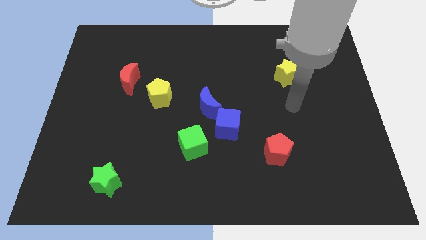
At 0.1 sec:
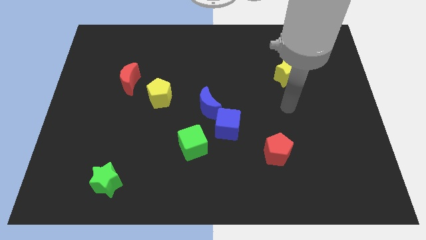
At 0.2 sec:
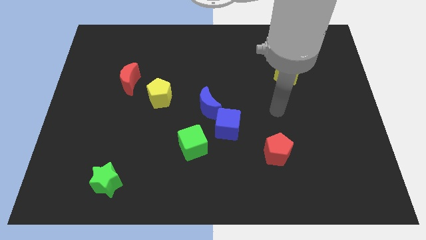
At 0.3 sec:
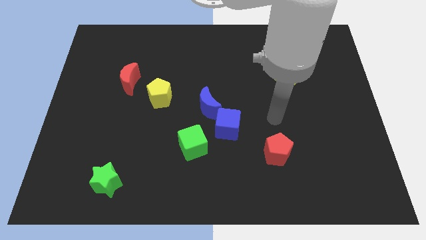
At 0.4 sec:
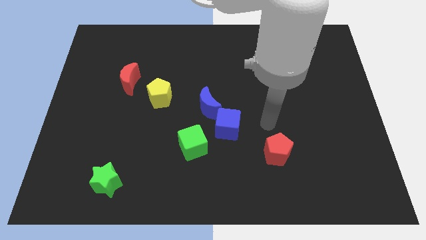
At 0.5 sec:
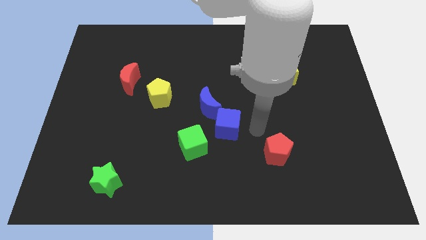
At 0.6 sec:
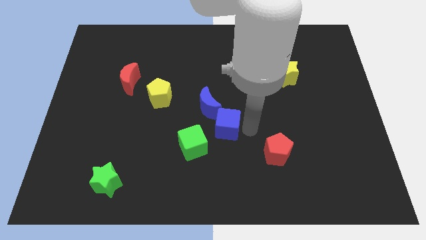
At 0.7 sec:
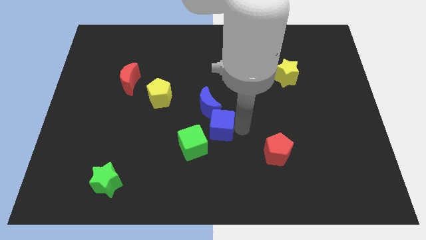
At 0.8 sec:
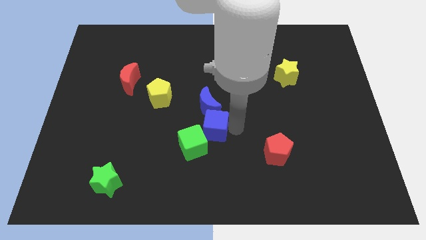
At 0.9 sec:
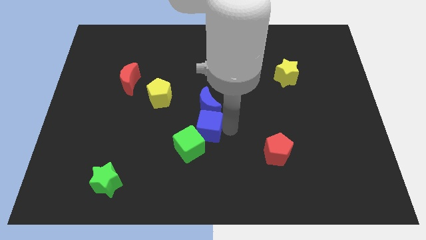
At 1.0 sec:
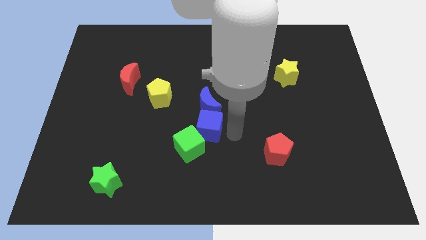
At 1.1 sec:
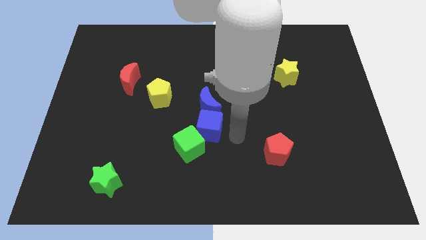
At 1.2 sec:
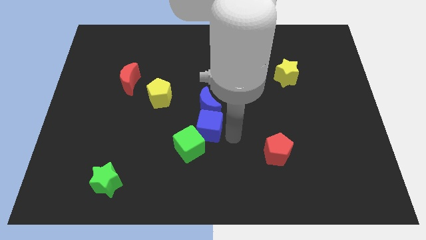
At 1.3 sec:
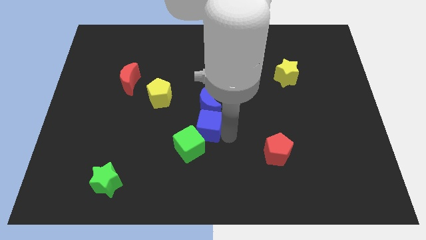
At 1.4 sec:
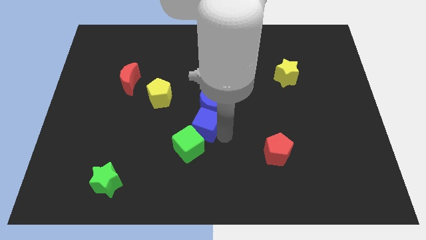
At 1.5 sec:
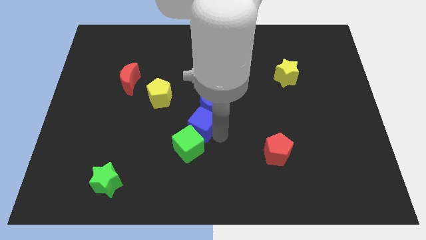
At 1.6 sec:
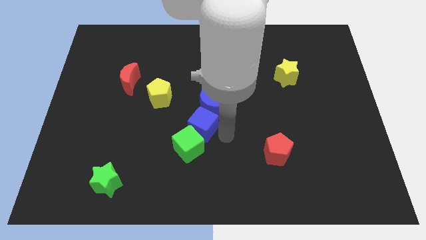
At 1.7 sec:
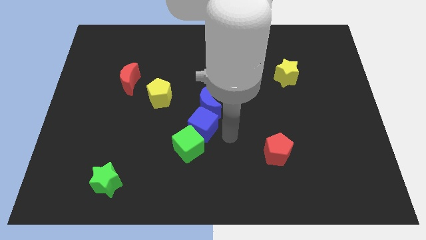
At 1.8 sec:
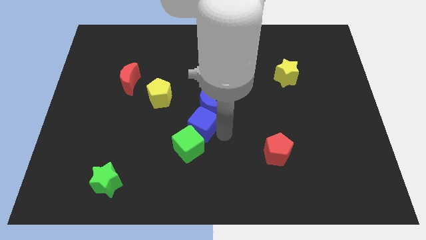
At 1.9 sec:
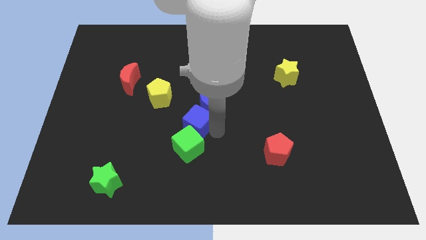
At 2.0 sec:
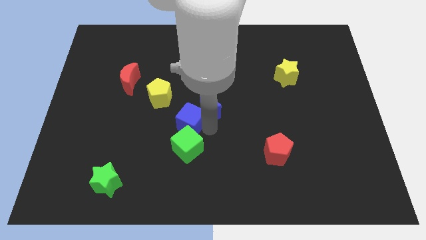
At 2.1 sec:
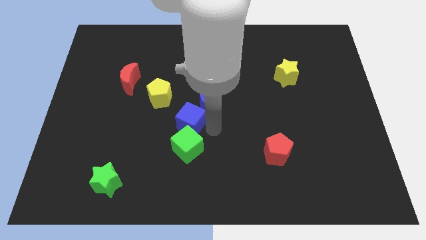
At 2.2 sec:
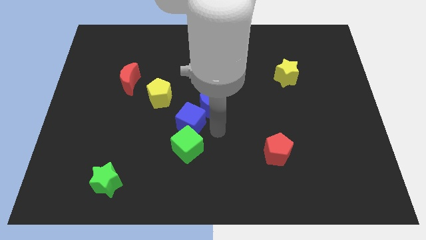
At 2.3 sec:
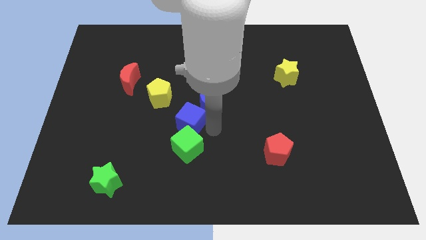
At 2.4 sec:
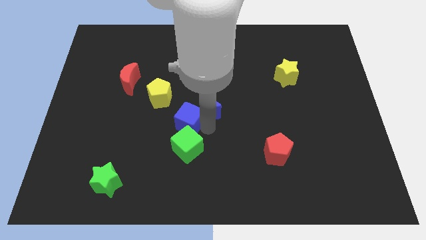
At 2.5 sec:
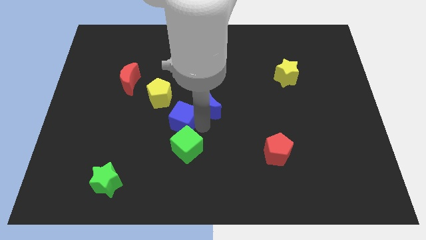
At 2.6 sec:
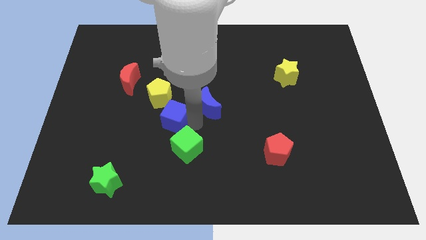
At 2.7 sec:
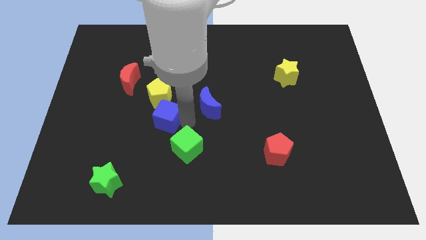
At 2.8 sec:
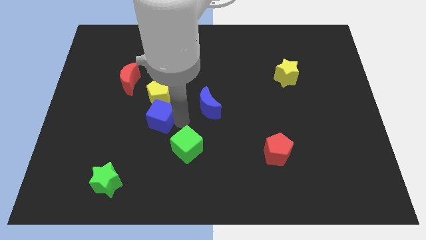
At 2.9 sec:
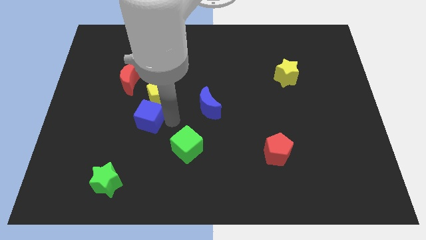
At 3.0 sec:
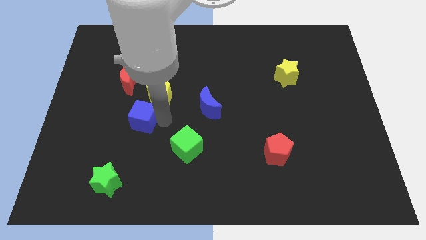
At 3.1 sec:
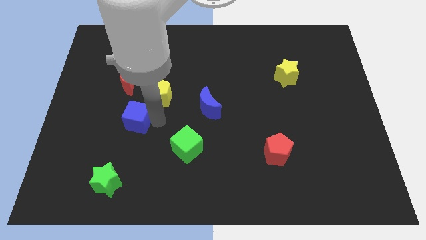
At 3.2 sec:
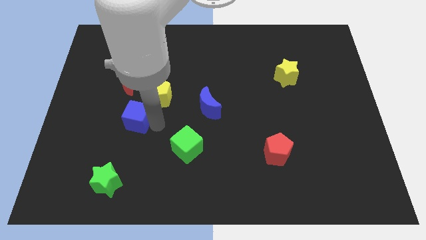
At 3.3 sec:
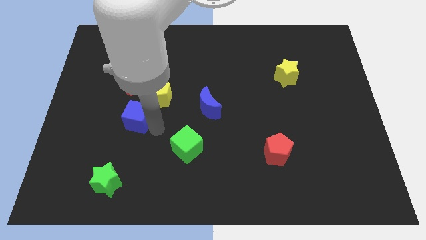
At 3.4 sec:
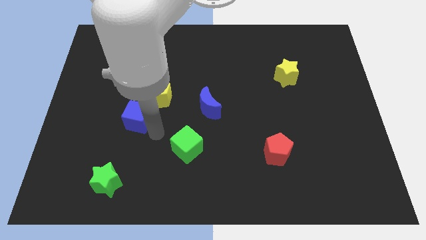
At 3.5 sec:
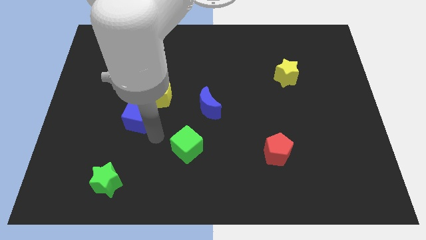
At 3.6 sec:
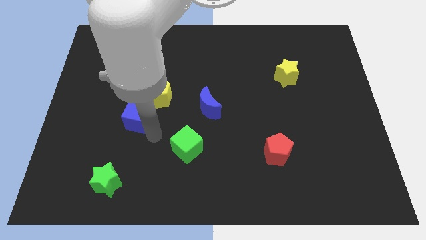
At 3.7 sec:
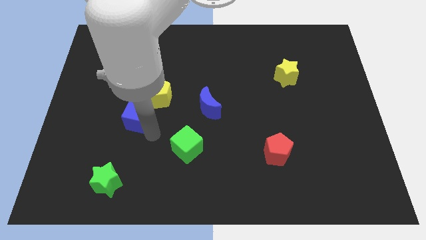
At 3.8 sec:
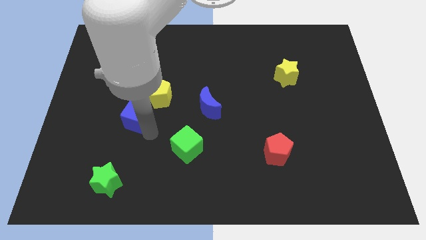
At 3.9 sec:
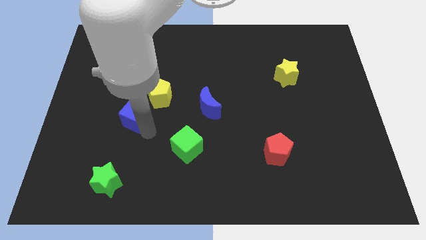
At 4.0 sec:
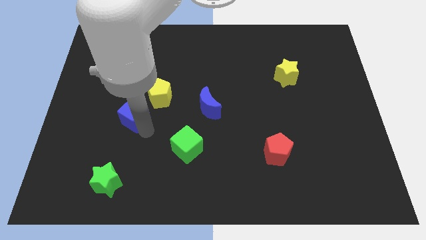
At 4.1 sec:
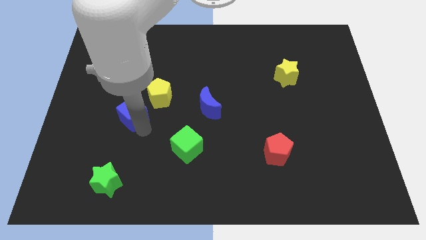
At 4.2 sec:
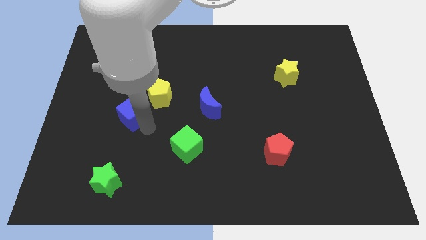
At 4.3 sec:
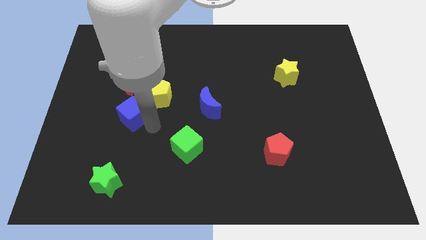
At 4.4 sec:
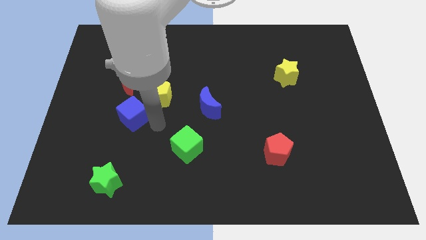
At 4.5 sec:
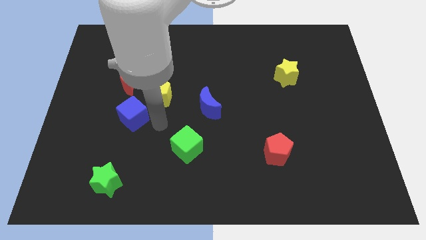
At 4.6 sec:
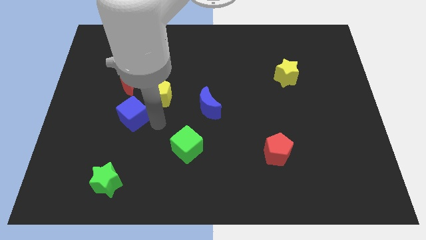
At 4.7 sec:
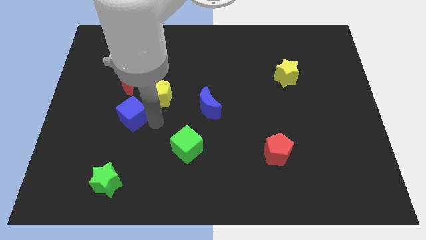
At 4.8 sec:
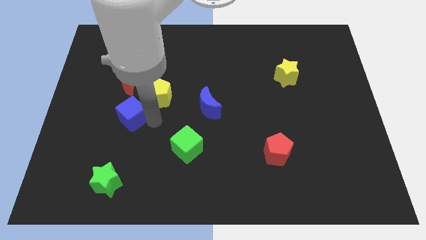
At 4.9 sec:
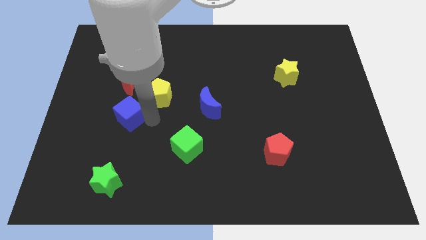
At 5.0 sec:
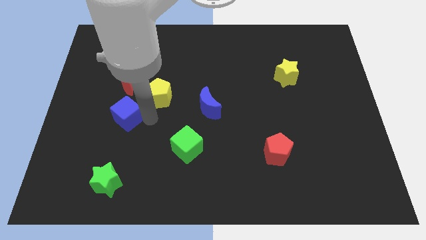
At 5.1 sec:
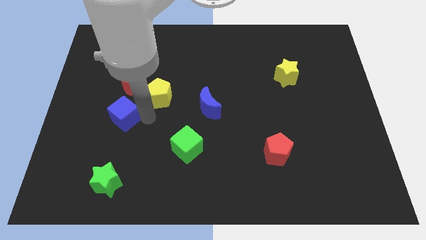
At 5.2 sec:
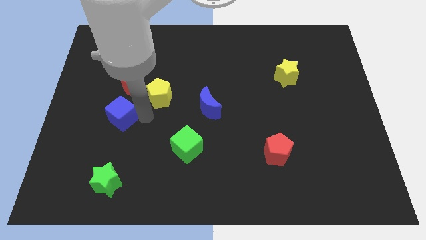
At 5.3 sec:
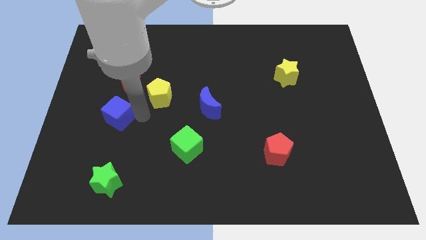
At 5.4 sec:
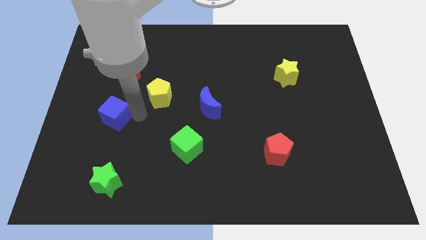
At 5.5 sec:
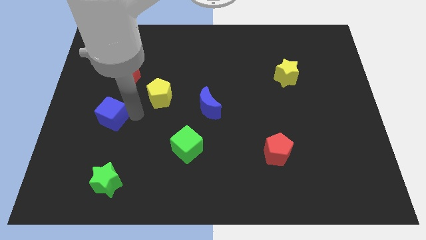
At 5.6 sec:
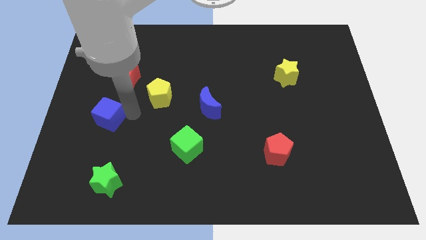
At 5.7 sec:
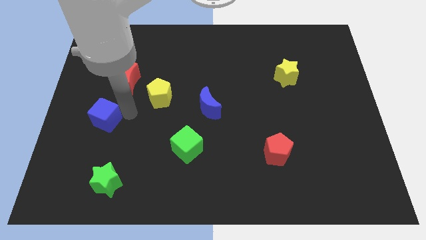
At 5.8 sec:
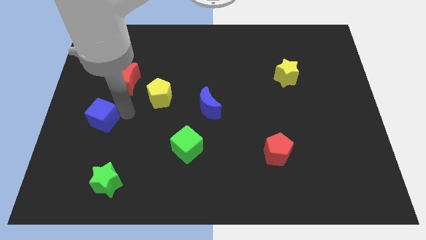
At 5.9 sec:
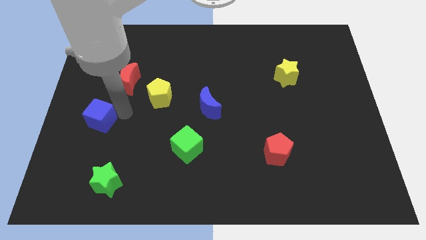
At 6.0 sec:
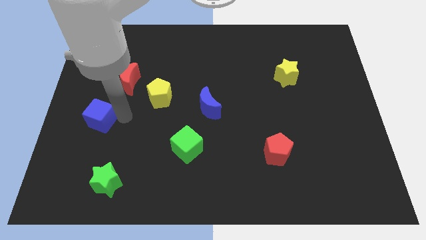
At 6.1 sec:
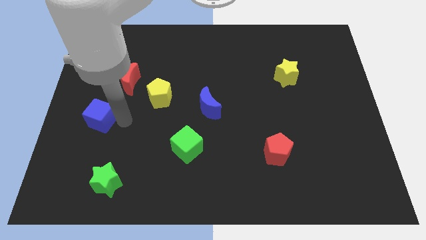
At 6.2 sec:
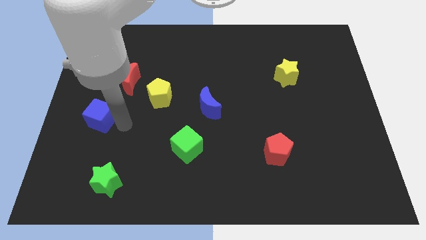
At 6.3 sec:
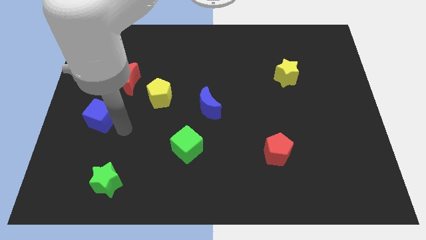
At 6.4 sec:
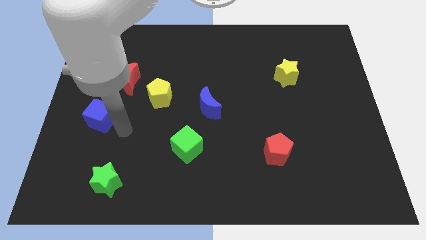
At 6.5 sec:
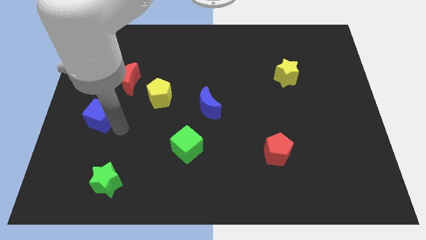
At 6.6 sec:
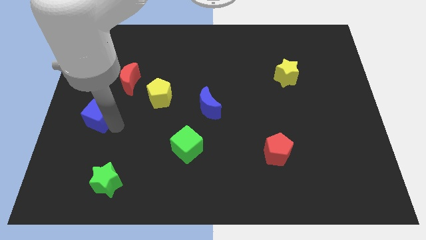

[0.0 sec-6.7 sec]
put the blue cube to the left side
